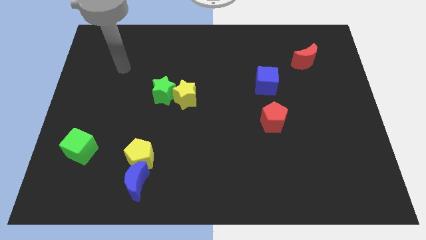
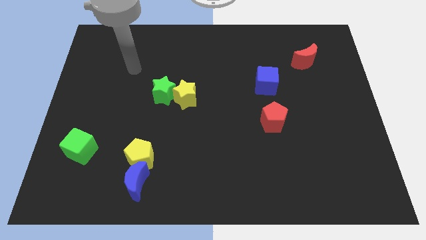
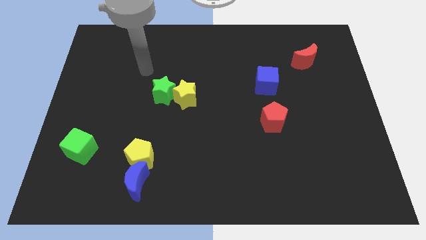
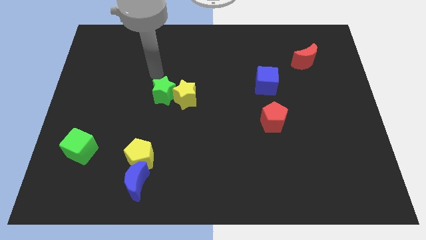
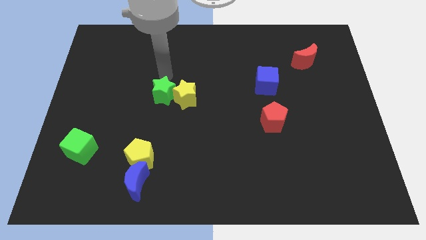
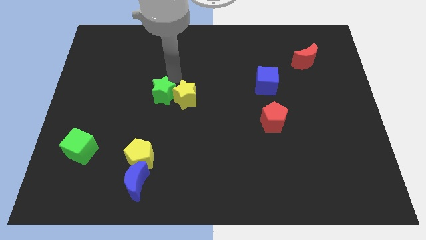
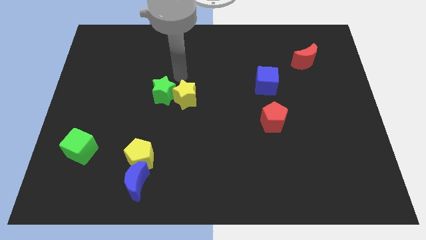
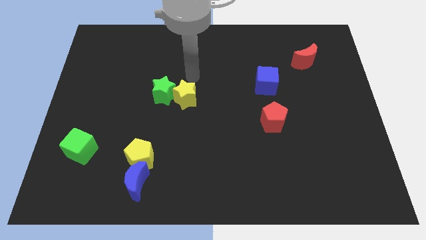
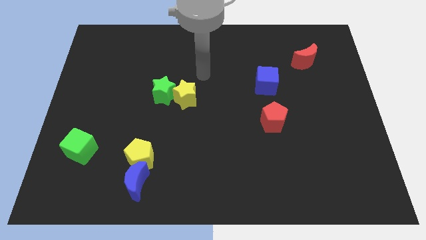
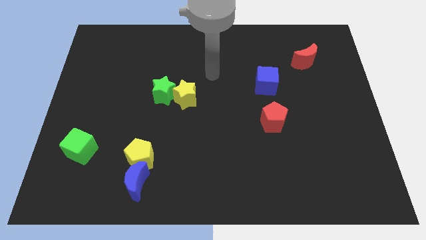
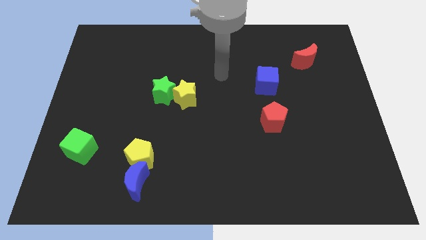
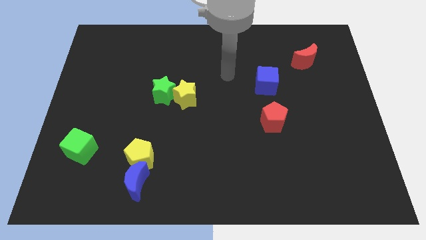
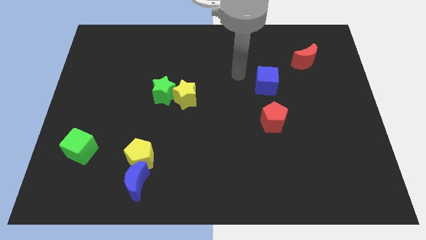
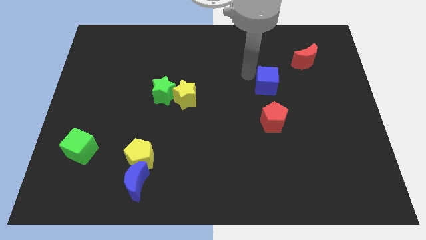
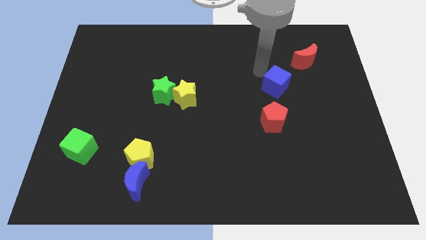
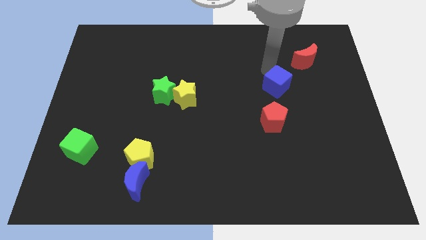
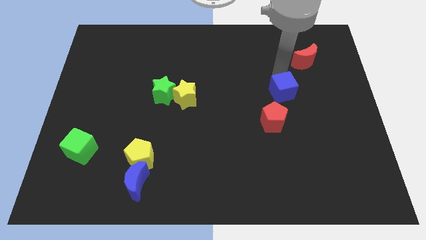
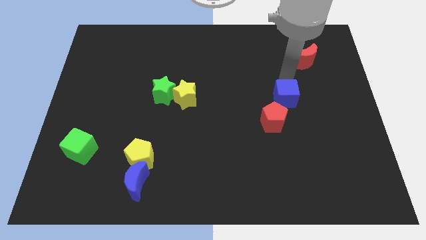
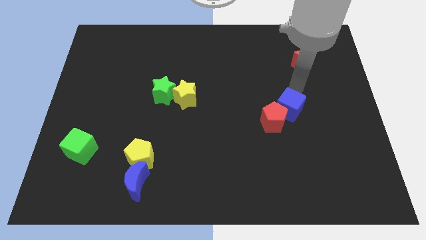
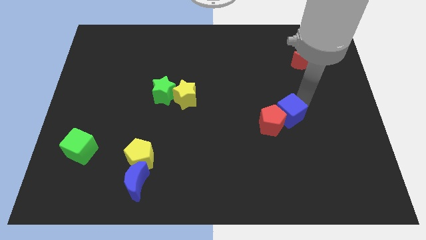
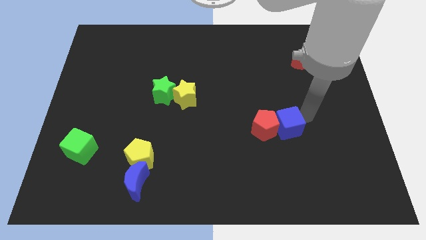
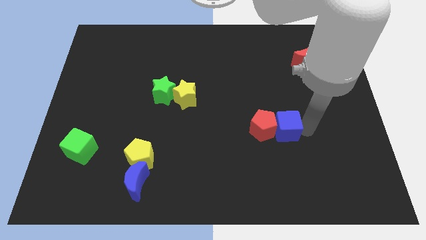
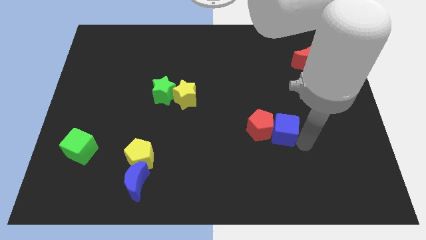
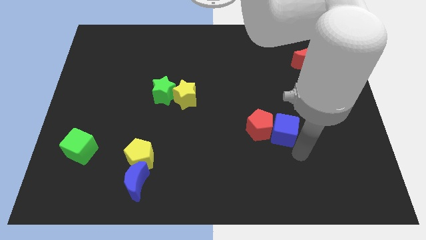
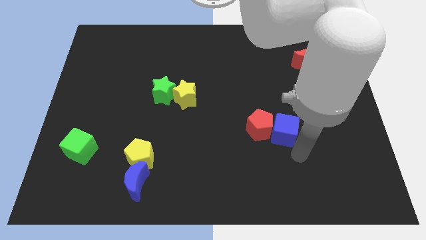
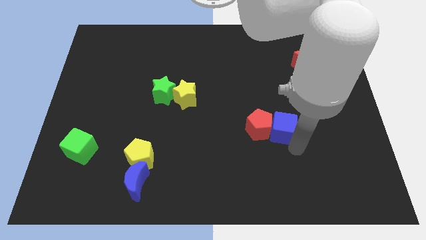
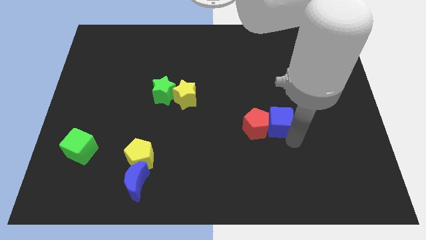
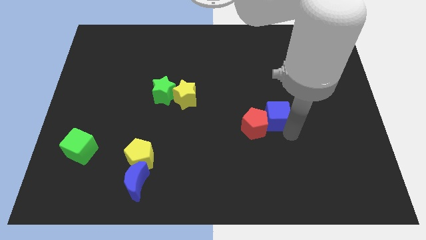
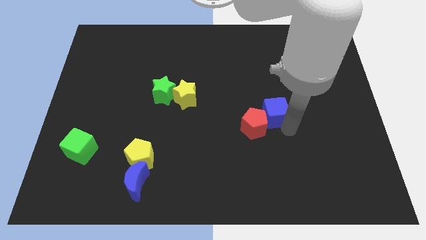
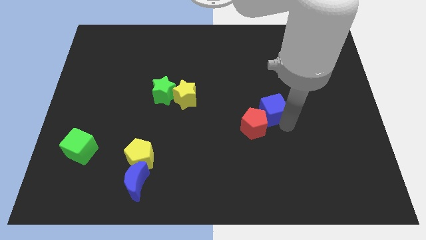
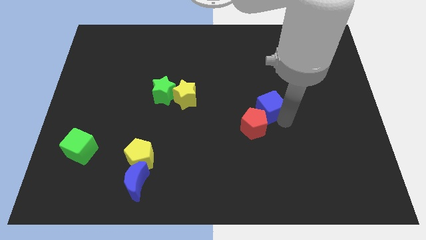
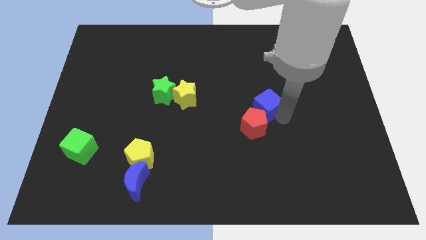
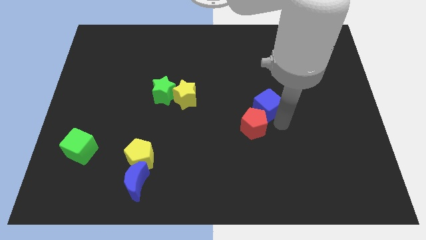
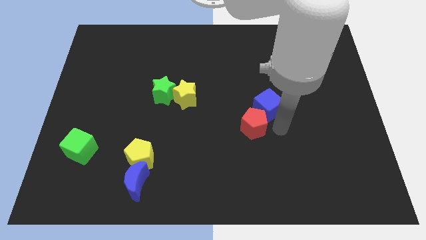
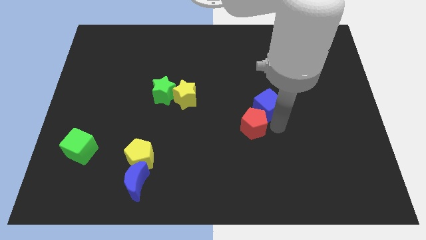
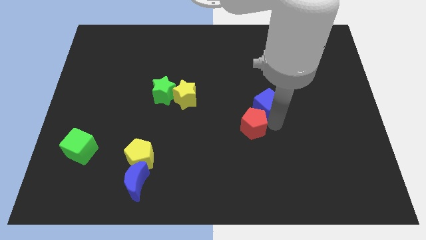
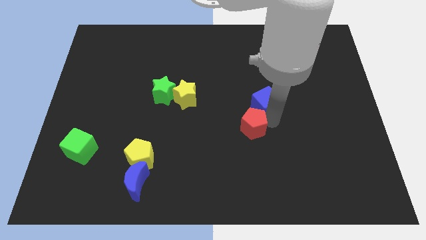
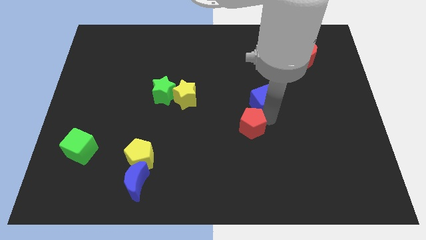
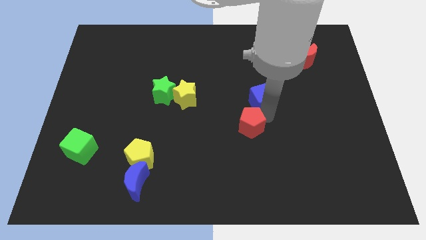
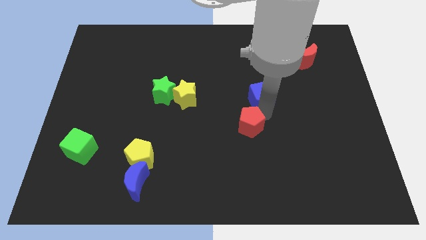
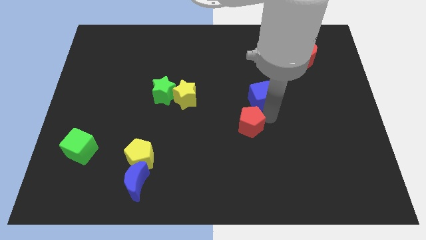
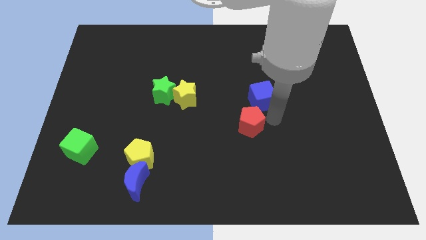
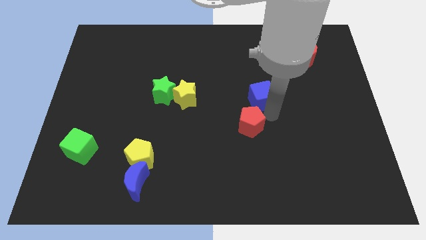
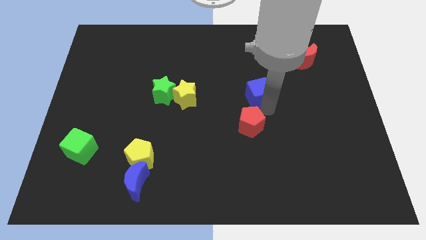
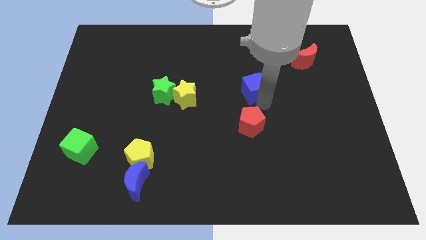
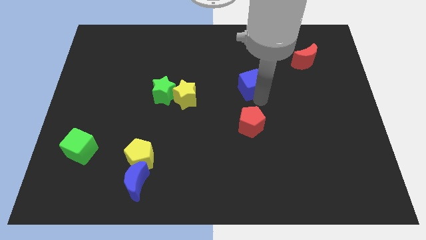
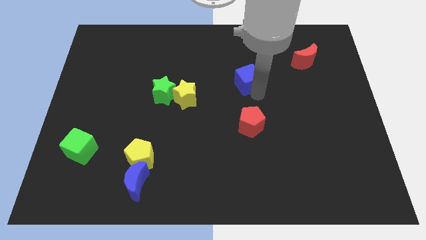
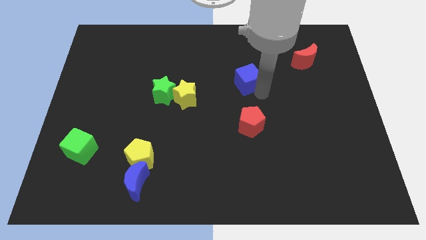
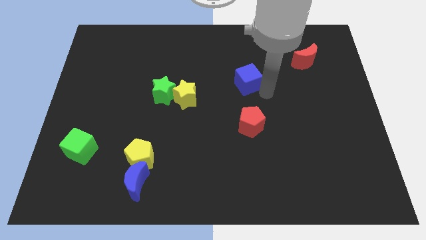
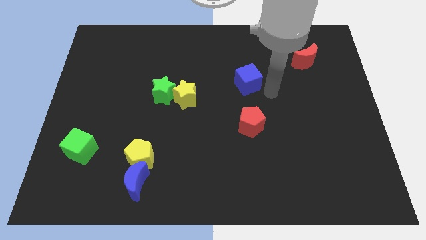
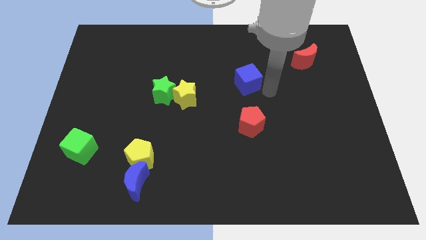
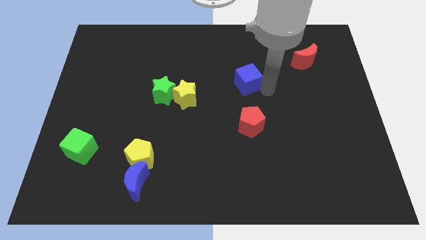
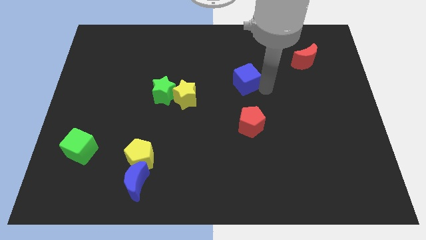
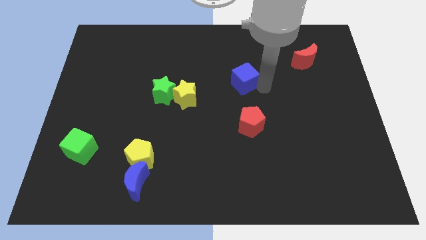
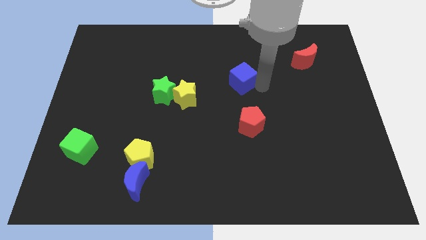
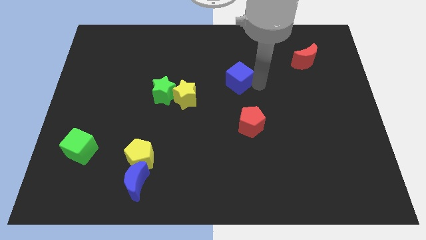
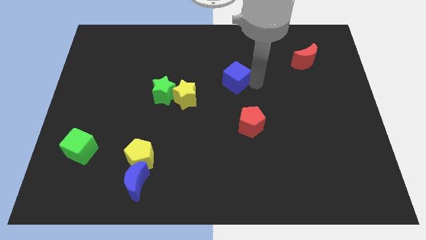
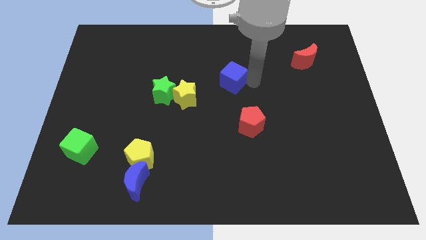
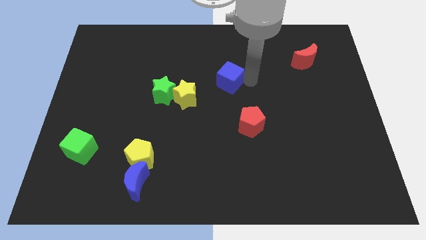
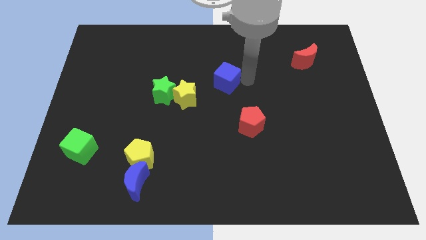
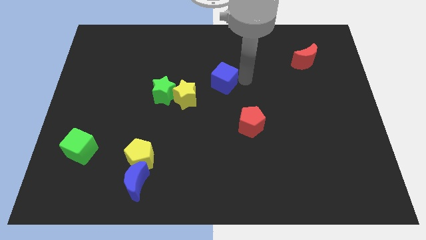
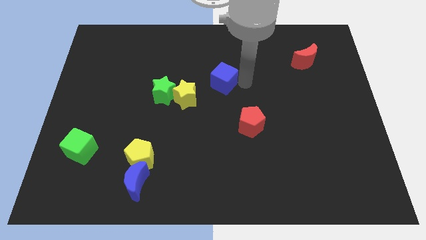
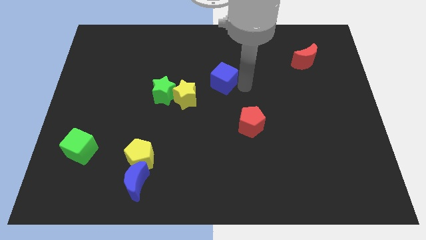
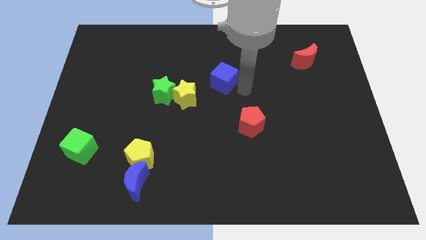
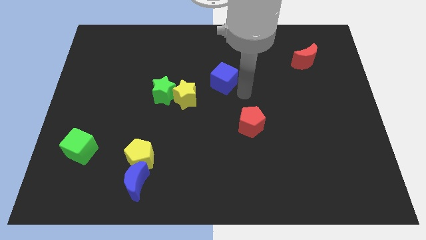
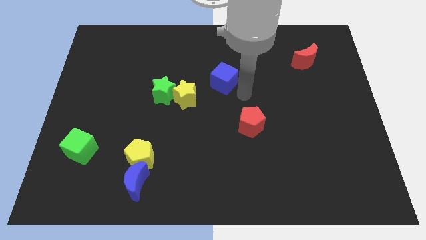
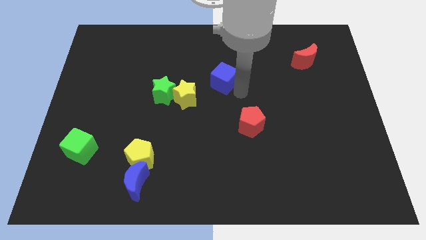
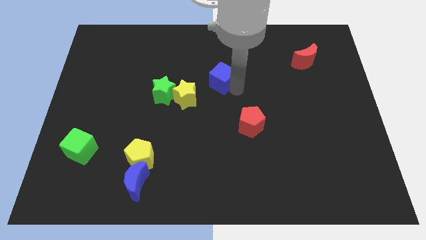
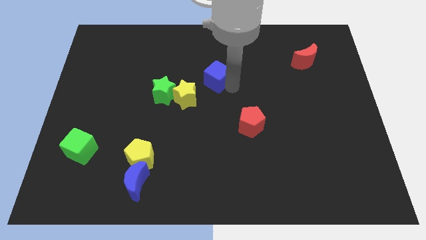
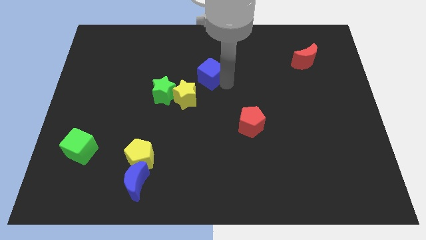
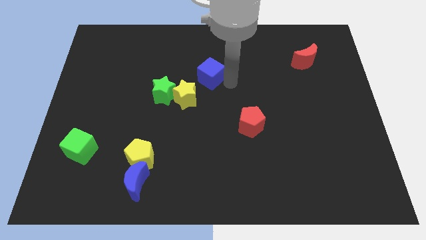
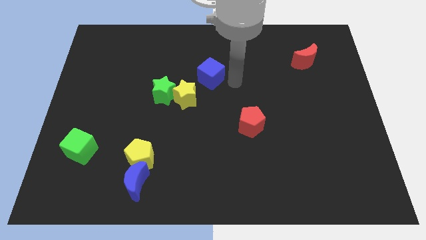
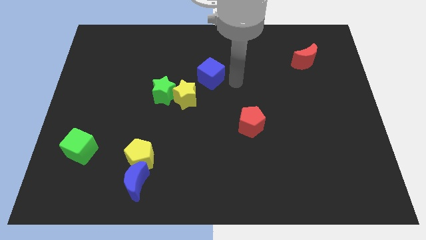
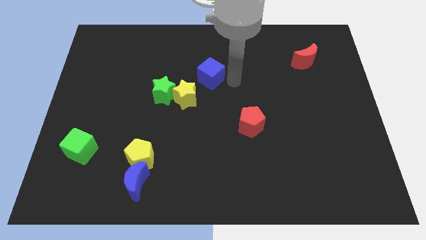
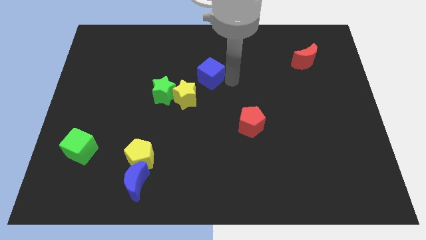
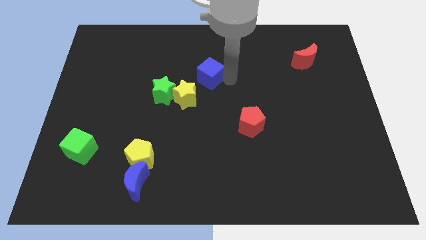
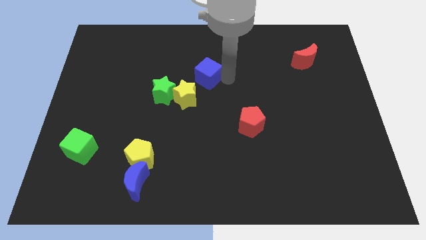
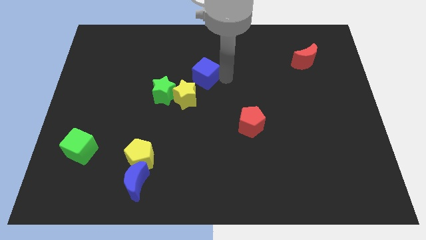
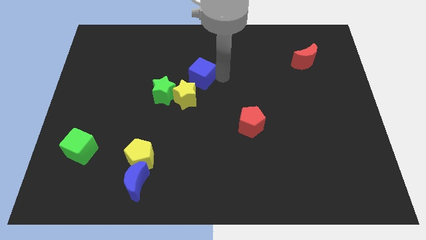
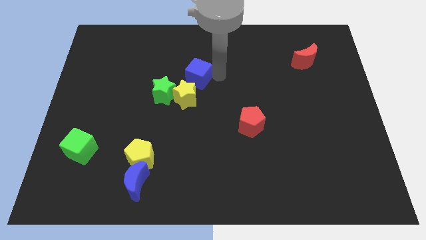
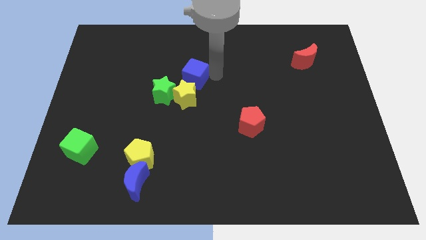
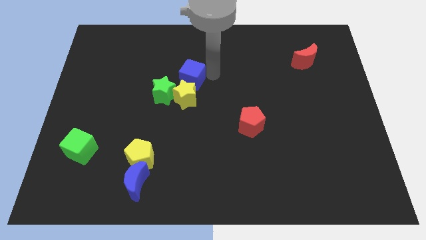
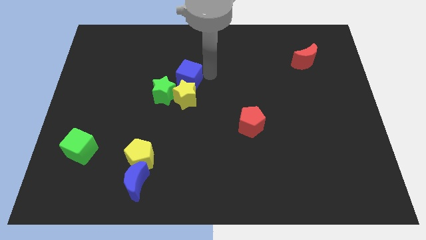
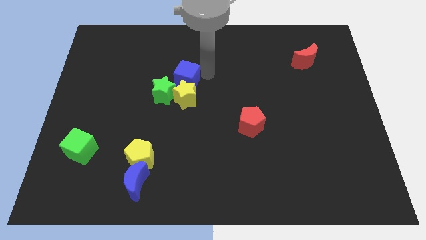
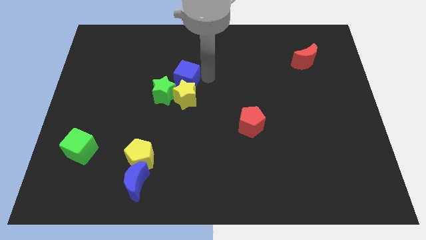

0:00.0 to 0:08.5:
push the blue cube to the left
